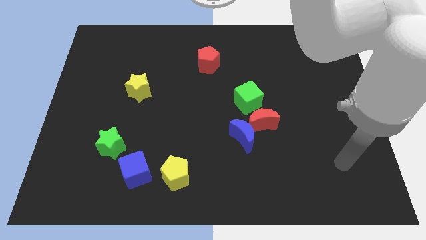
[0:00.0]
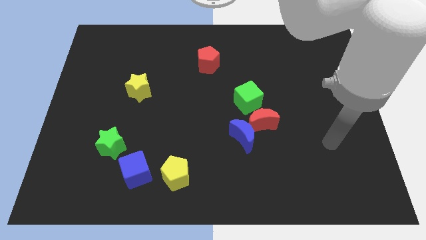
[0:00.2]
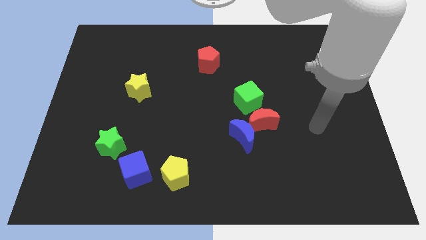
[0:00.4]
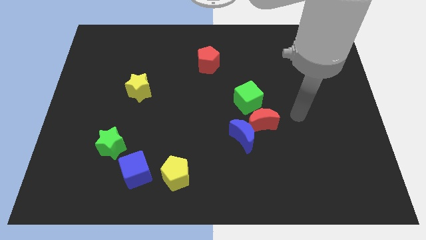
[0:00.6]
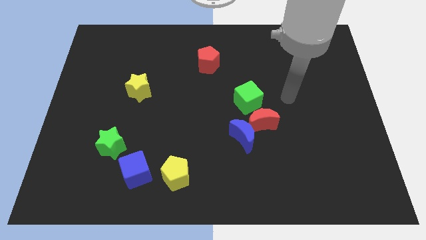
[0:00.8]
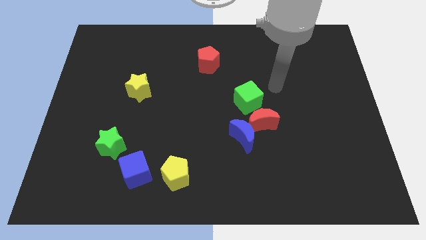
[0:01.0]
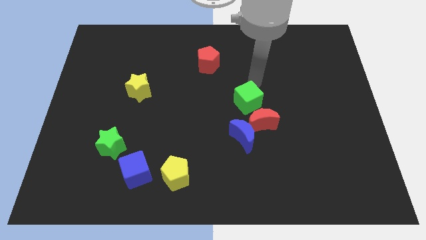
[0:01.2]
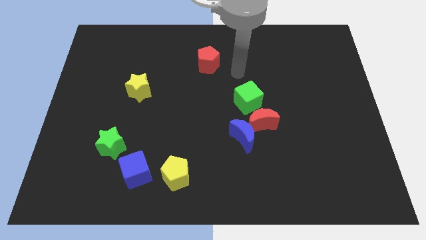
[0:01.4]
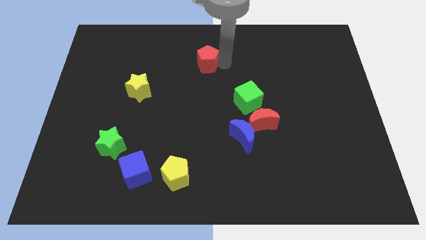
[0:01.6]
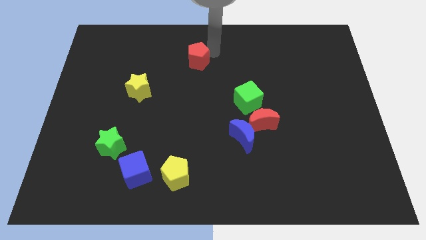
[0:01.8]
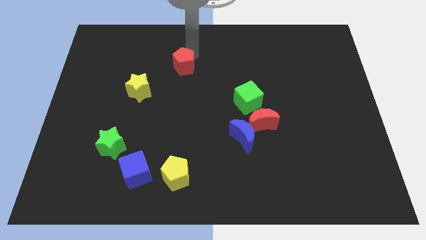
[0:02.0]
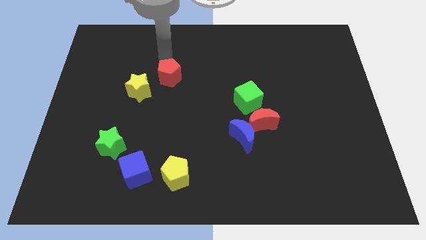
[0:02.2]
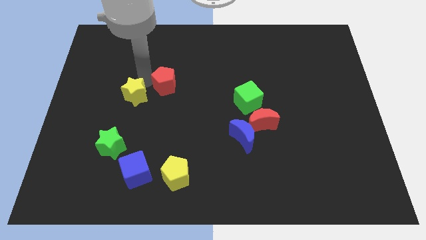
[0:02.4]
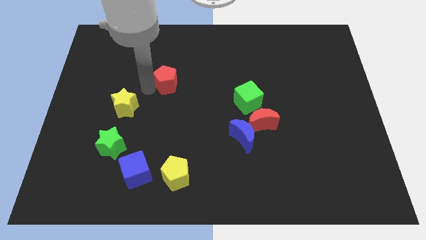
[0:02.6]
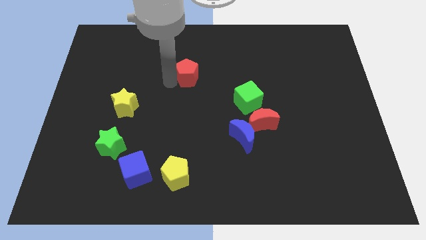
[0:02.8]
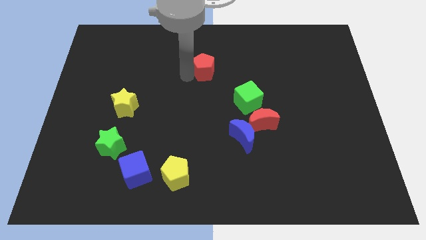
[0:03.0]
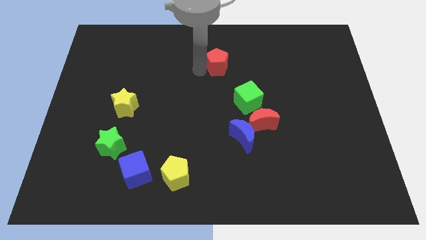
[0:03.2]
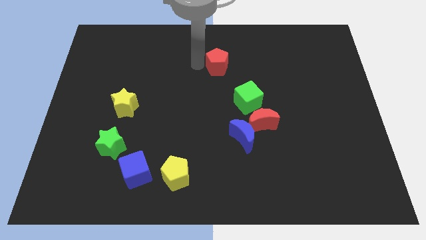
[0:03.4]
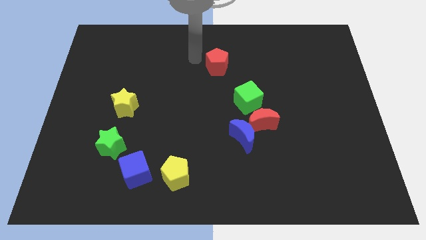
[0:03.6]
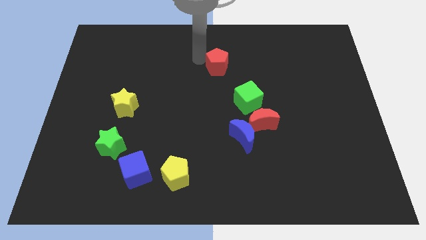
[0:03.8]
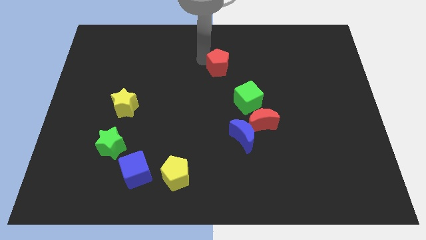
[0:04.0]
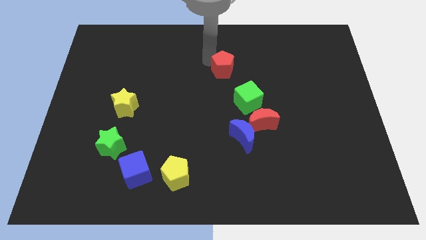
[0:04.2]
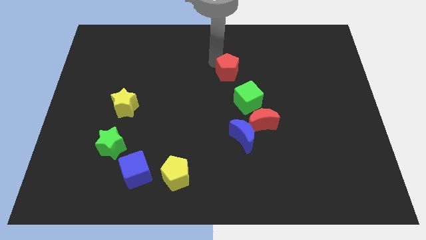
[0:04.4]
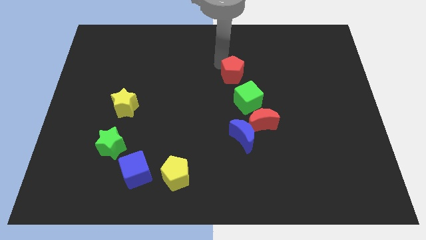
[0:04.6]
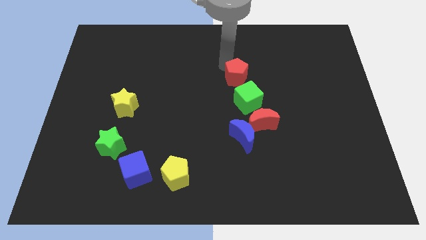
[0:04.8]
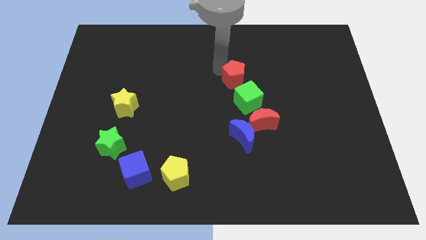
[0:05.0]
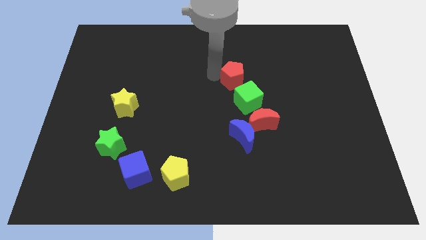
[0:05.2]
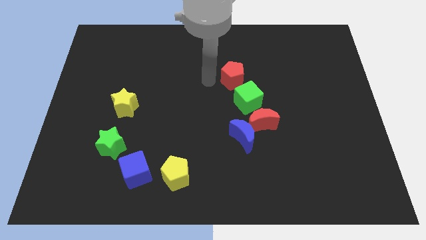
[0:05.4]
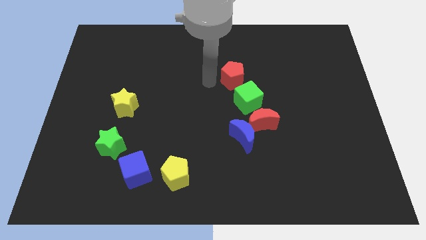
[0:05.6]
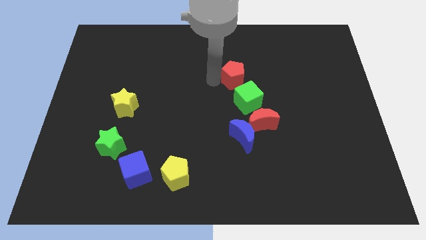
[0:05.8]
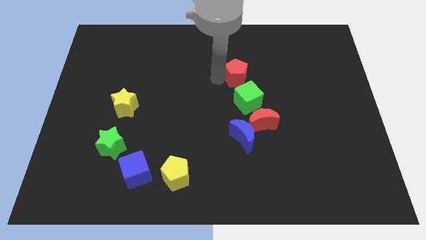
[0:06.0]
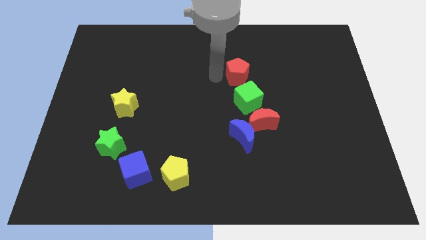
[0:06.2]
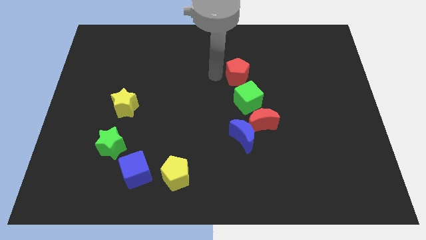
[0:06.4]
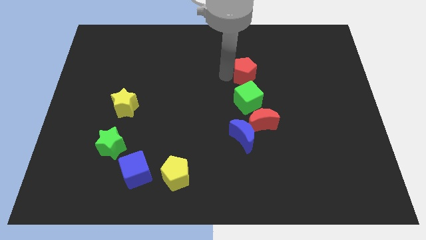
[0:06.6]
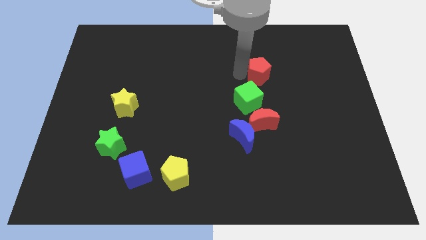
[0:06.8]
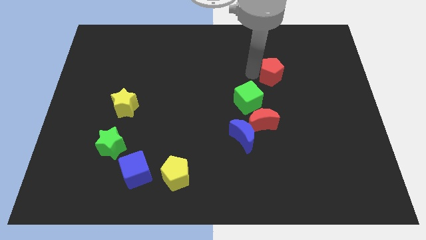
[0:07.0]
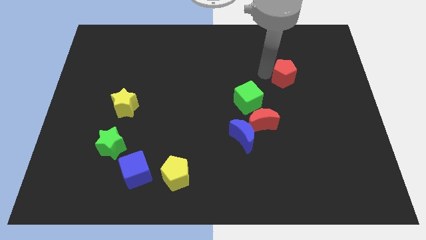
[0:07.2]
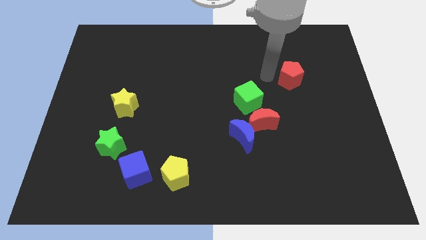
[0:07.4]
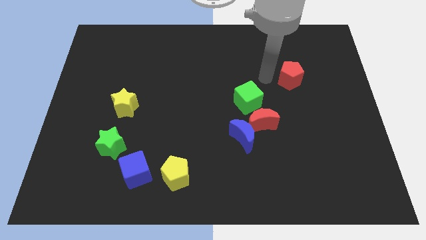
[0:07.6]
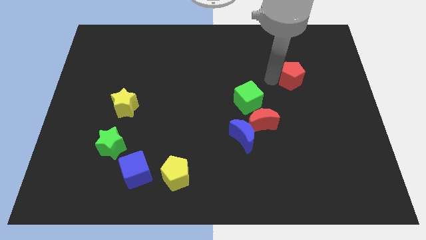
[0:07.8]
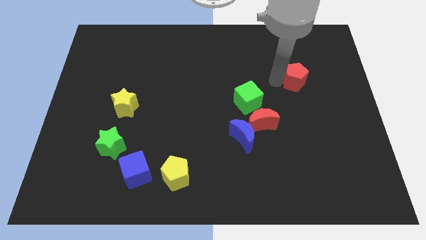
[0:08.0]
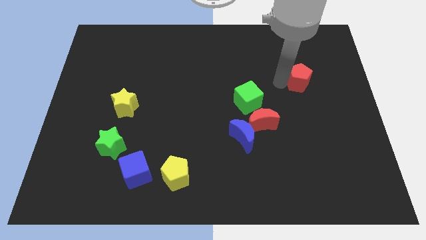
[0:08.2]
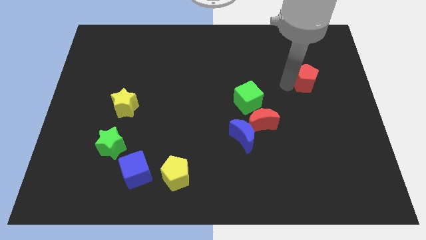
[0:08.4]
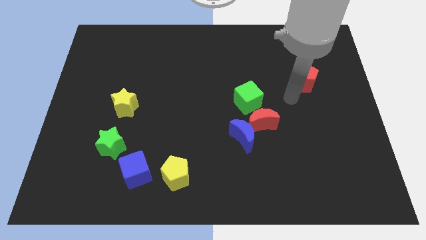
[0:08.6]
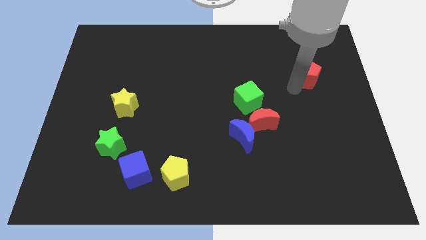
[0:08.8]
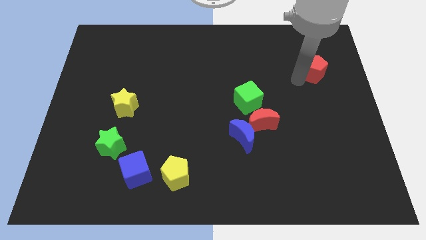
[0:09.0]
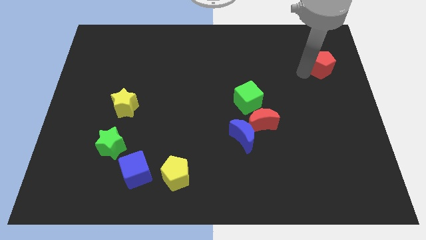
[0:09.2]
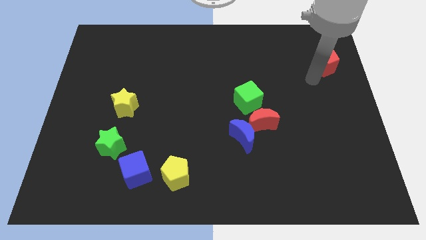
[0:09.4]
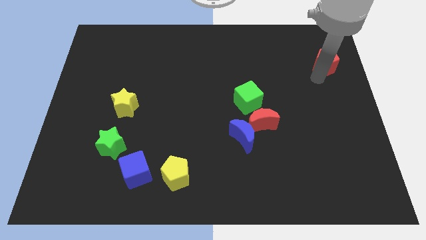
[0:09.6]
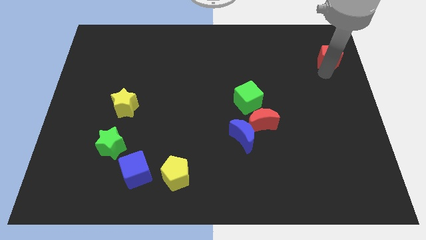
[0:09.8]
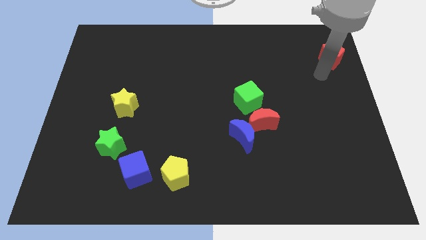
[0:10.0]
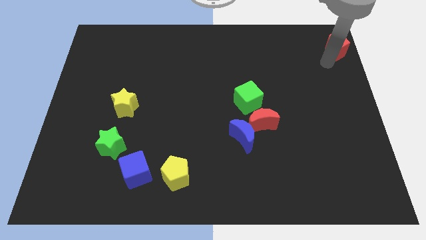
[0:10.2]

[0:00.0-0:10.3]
slide the red pentagon to the top right corner

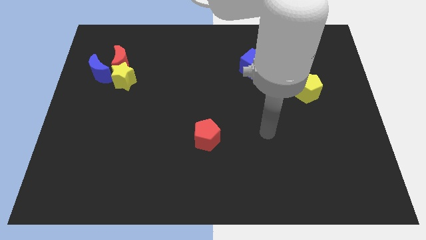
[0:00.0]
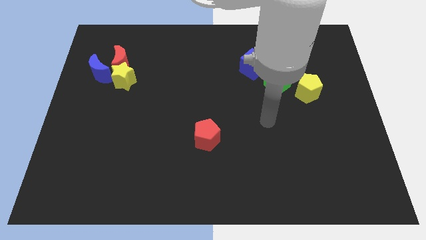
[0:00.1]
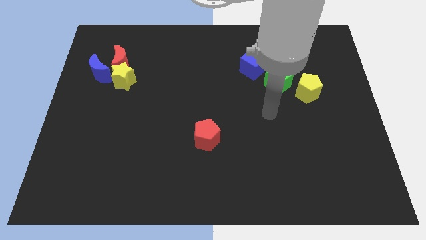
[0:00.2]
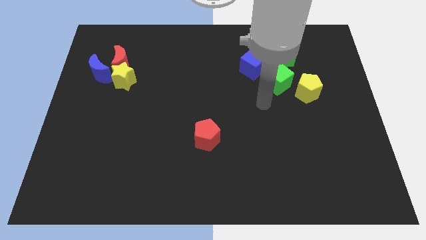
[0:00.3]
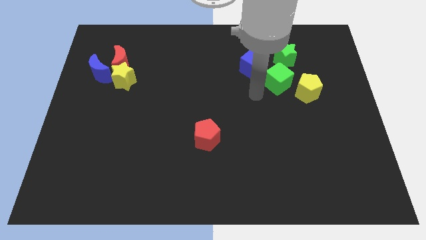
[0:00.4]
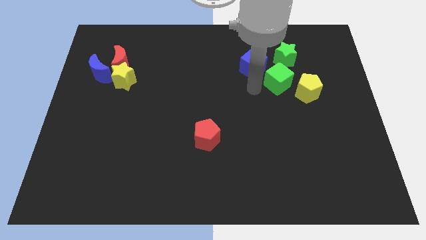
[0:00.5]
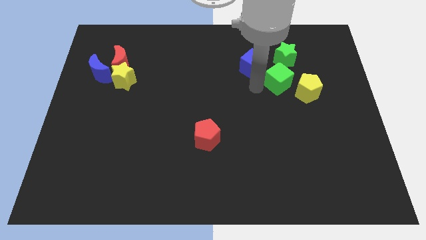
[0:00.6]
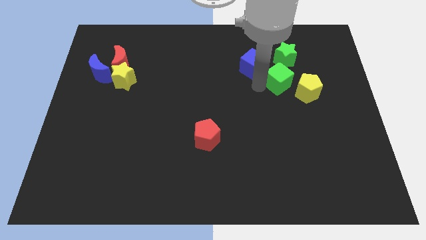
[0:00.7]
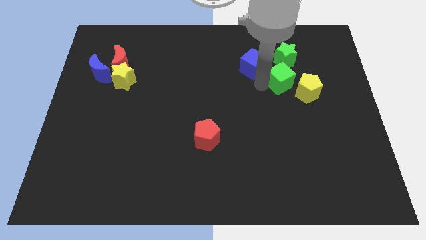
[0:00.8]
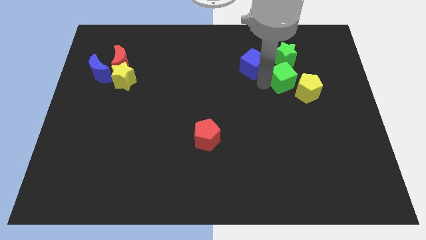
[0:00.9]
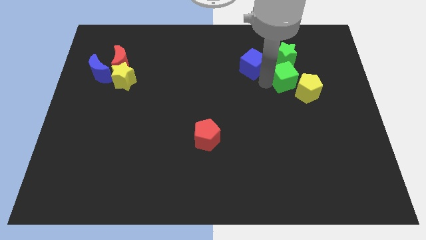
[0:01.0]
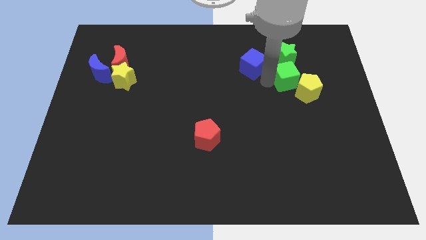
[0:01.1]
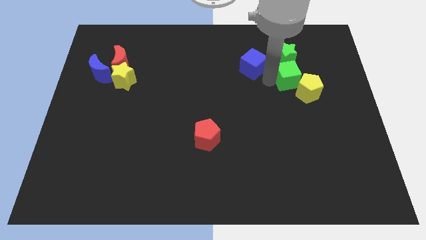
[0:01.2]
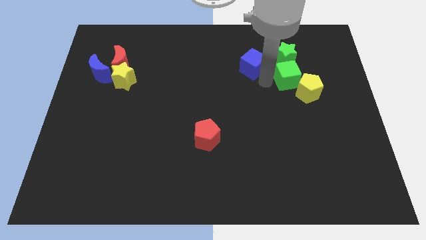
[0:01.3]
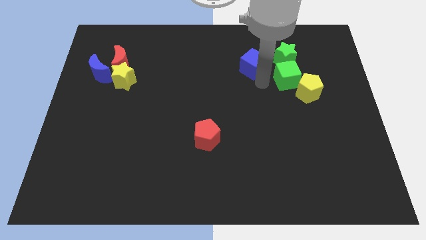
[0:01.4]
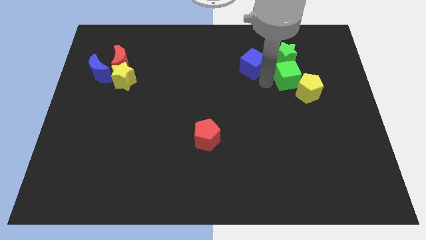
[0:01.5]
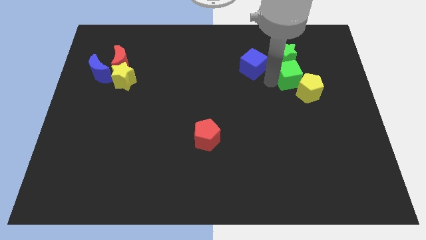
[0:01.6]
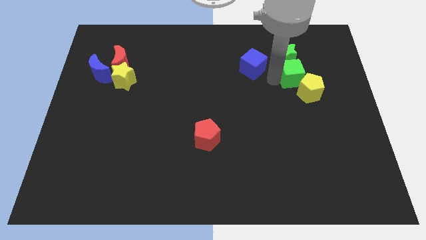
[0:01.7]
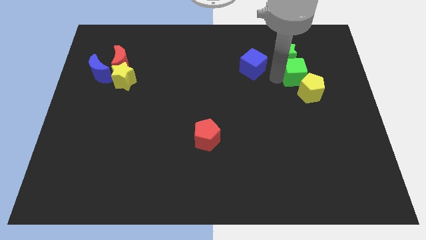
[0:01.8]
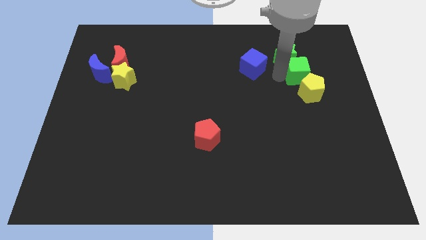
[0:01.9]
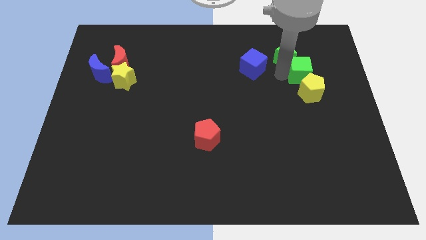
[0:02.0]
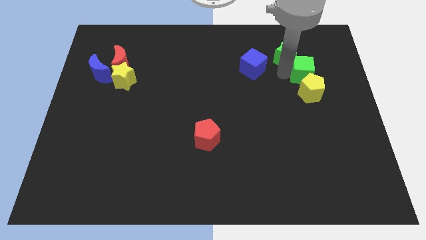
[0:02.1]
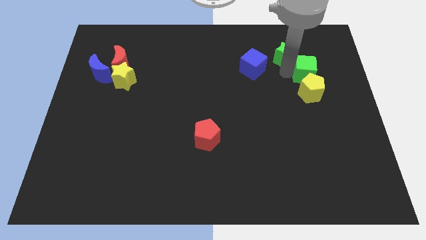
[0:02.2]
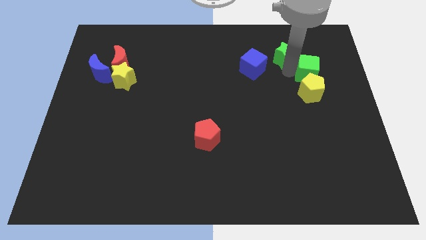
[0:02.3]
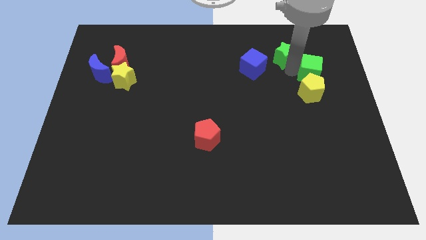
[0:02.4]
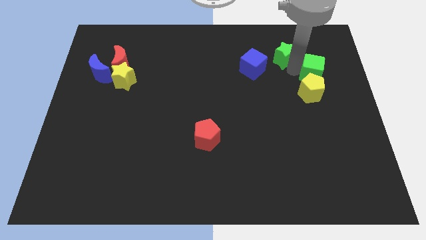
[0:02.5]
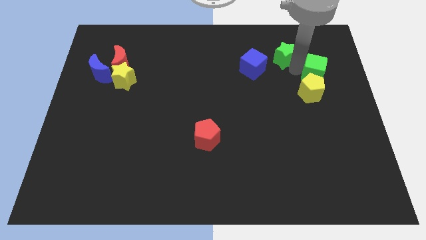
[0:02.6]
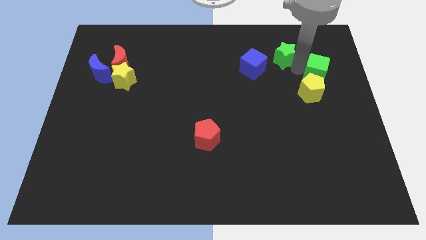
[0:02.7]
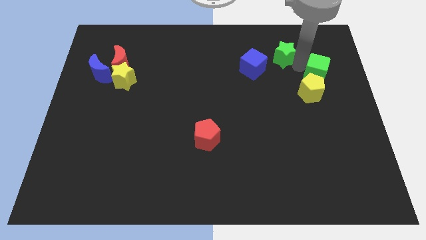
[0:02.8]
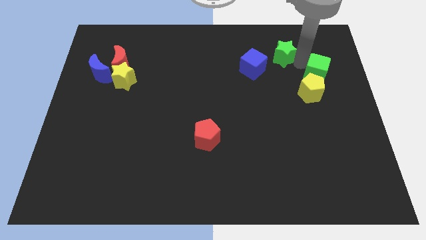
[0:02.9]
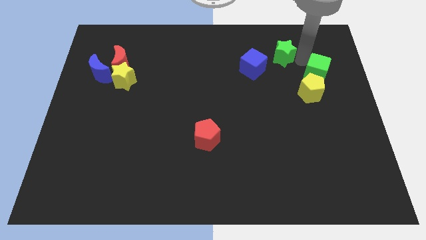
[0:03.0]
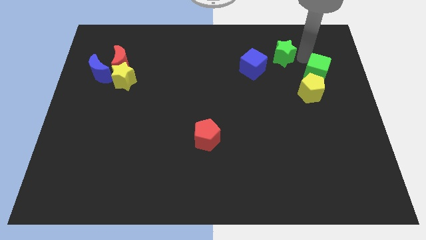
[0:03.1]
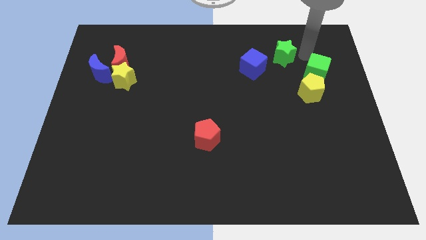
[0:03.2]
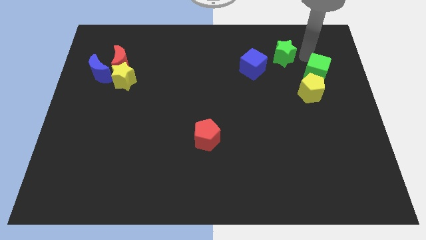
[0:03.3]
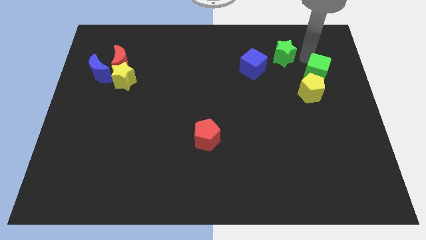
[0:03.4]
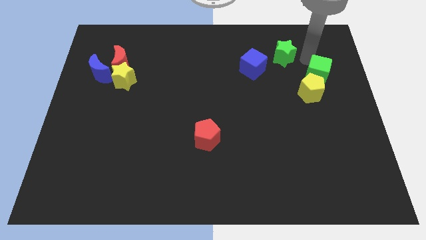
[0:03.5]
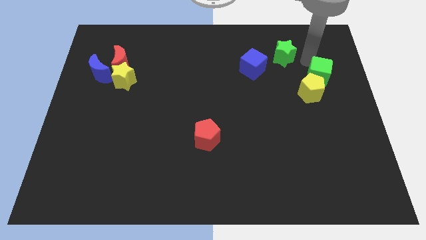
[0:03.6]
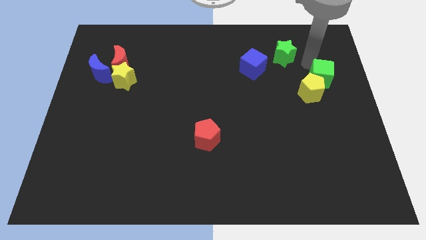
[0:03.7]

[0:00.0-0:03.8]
push the green cube to the right side of the board
